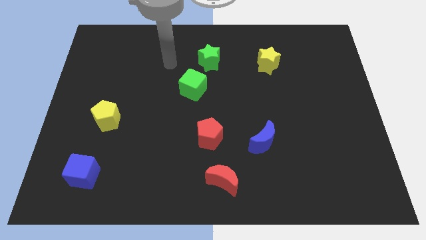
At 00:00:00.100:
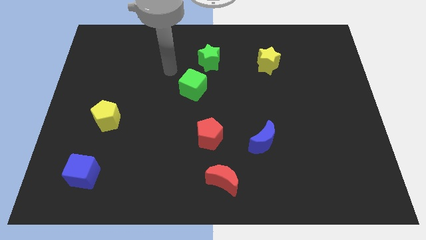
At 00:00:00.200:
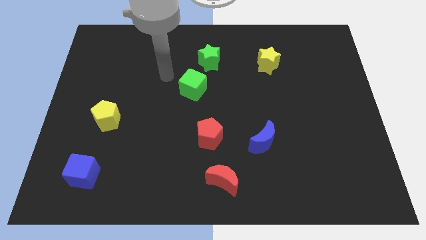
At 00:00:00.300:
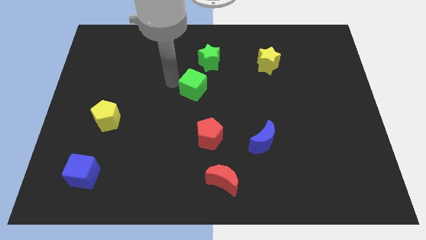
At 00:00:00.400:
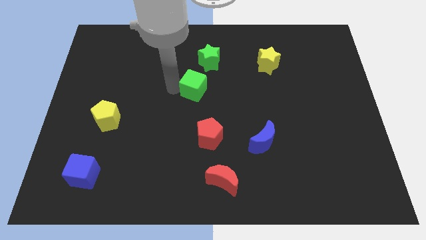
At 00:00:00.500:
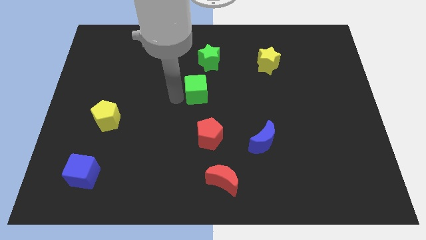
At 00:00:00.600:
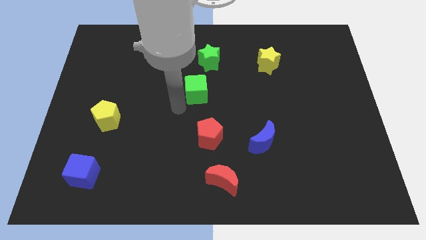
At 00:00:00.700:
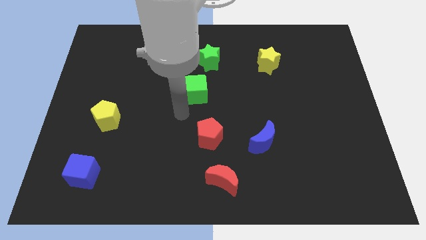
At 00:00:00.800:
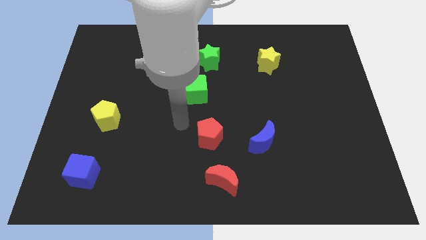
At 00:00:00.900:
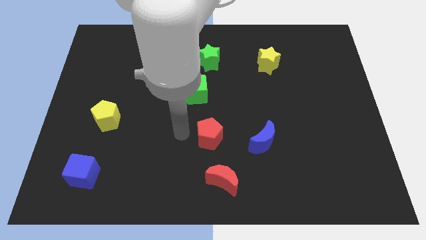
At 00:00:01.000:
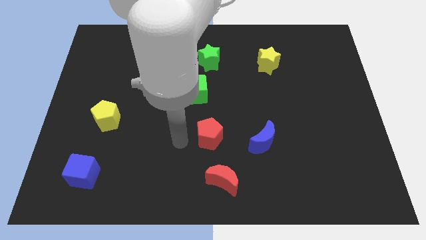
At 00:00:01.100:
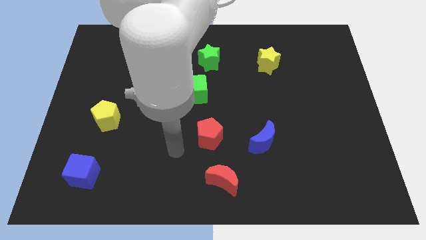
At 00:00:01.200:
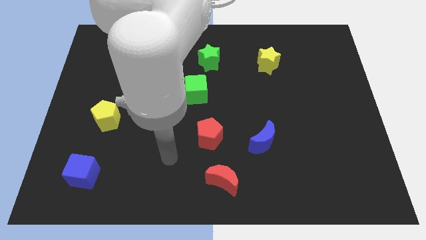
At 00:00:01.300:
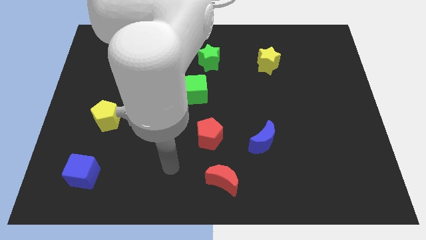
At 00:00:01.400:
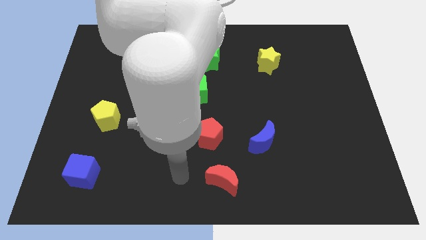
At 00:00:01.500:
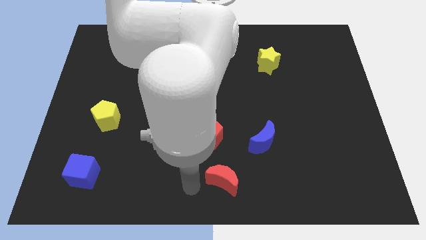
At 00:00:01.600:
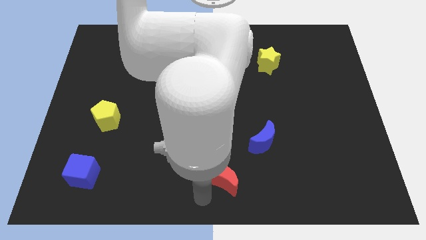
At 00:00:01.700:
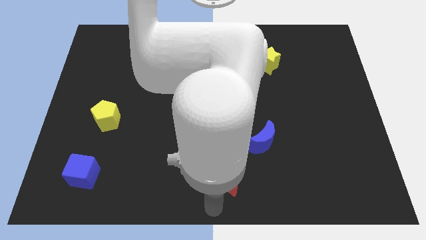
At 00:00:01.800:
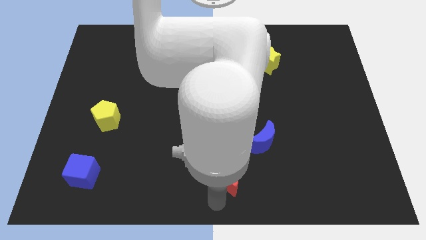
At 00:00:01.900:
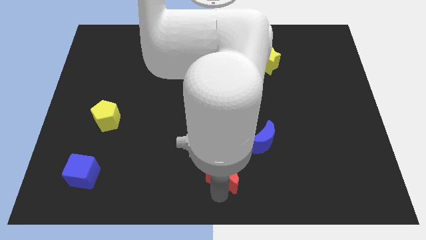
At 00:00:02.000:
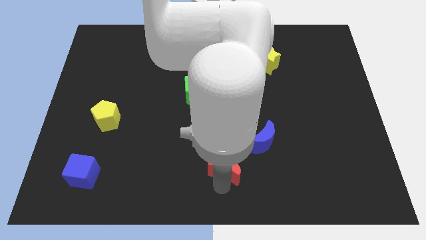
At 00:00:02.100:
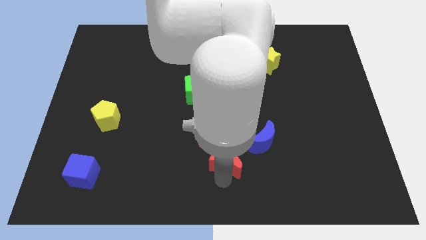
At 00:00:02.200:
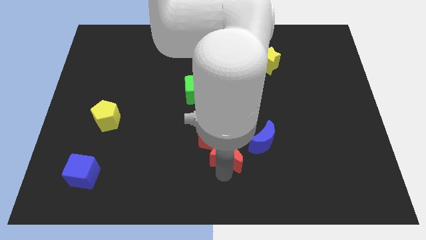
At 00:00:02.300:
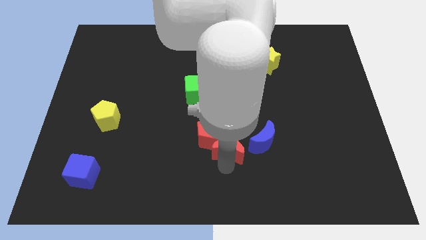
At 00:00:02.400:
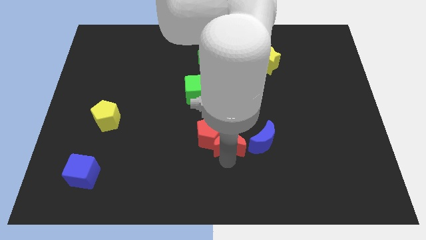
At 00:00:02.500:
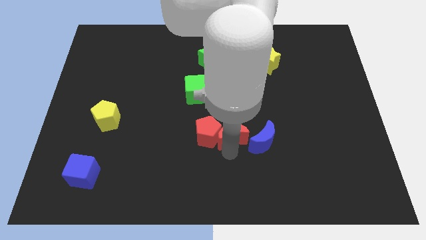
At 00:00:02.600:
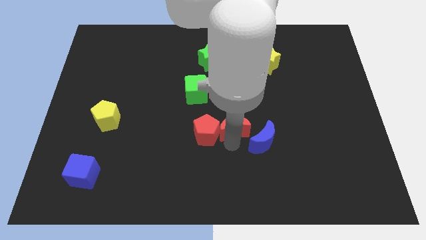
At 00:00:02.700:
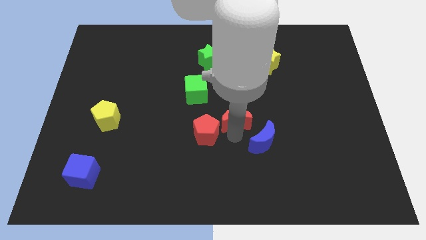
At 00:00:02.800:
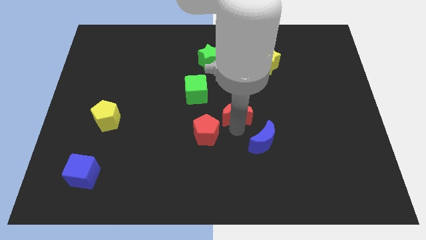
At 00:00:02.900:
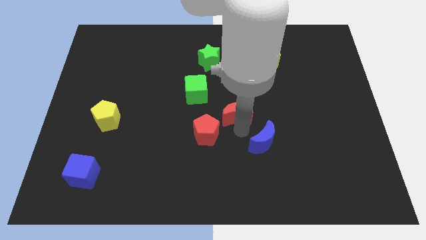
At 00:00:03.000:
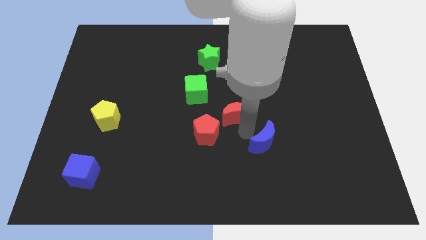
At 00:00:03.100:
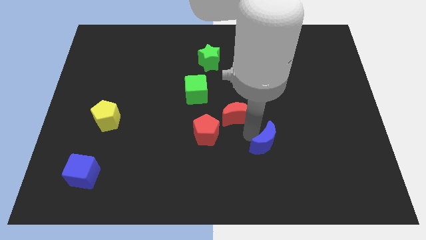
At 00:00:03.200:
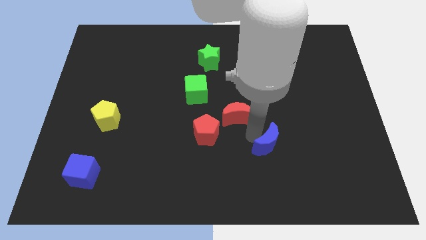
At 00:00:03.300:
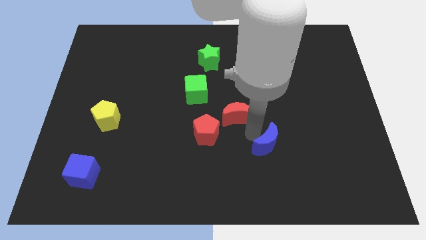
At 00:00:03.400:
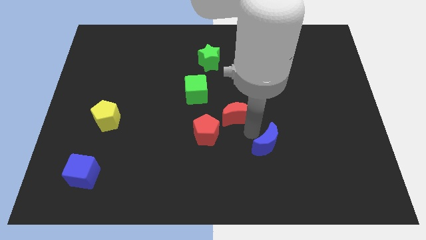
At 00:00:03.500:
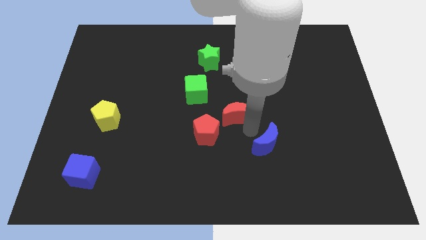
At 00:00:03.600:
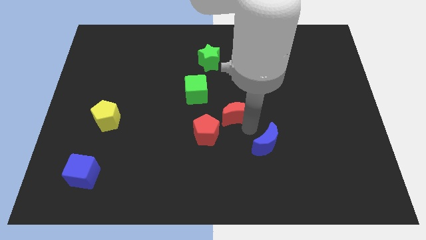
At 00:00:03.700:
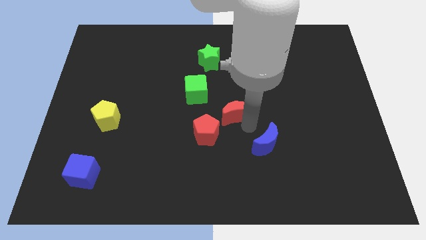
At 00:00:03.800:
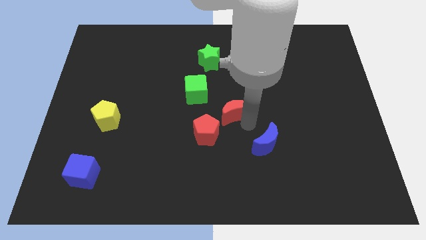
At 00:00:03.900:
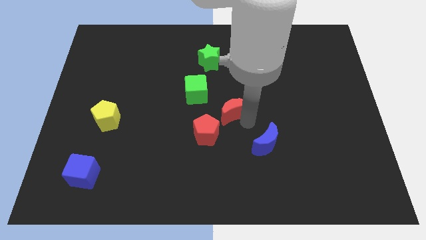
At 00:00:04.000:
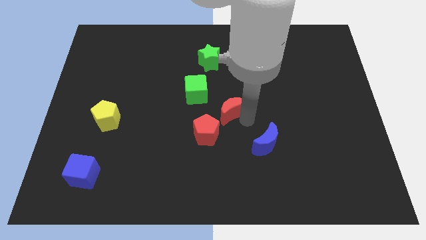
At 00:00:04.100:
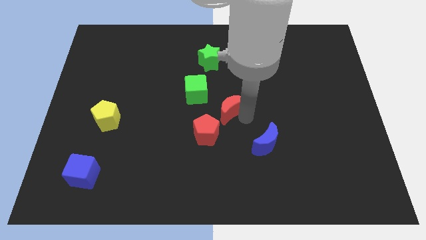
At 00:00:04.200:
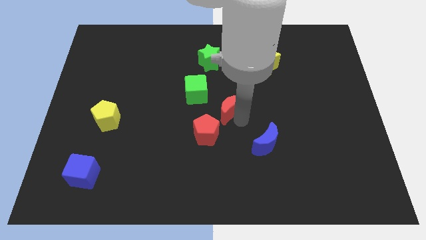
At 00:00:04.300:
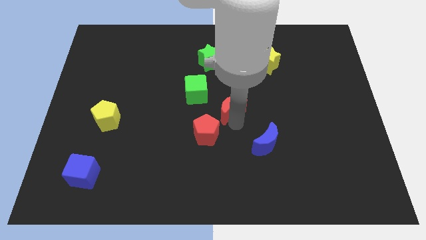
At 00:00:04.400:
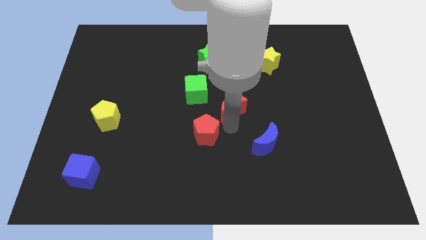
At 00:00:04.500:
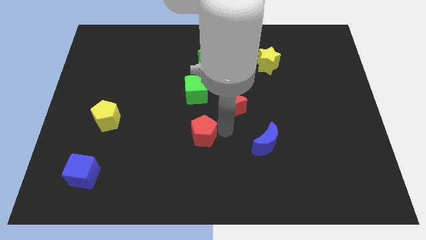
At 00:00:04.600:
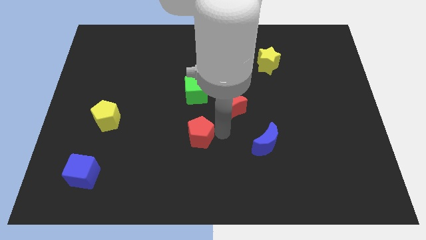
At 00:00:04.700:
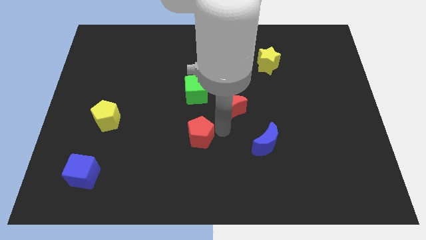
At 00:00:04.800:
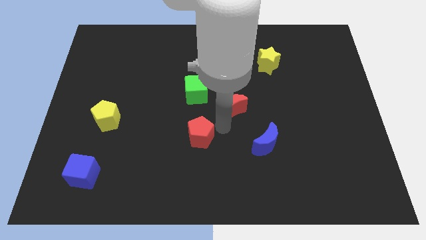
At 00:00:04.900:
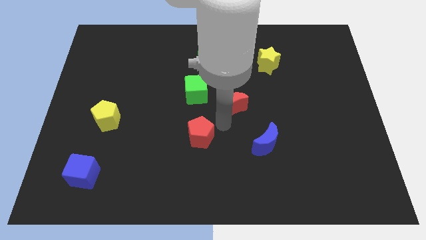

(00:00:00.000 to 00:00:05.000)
move the red moon to the right side of the green cube

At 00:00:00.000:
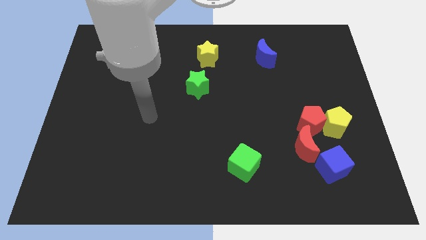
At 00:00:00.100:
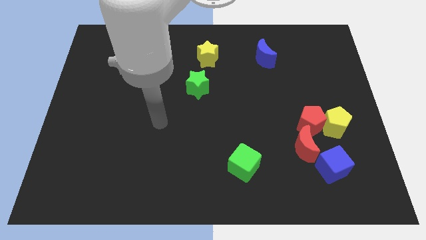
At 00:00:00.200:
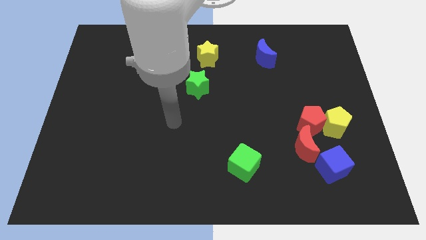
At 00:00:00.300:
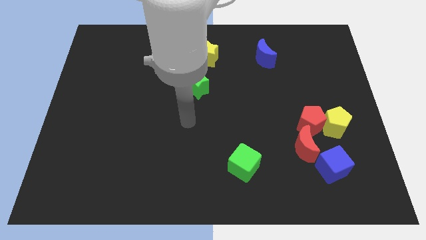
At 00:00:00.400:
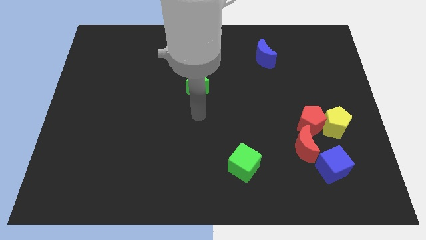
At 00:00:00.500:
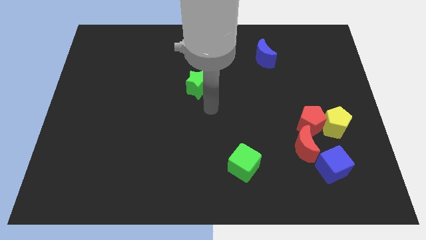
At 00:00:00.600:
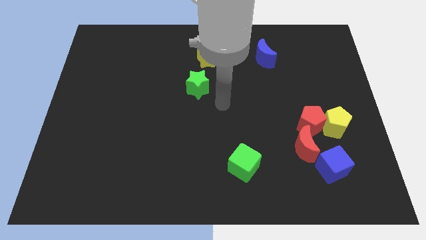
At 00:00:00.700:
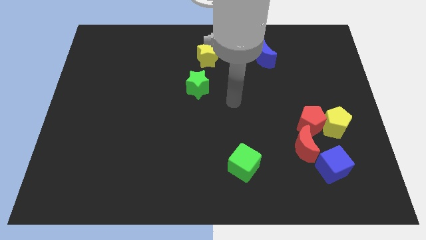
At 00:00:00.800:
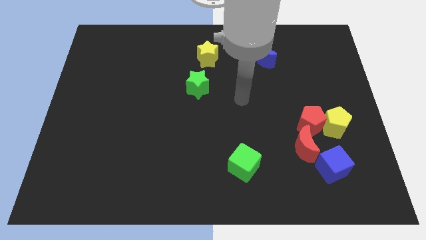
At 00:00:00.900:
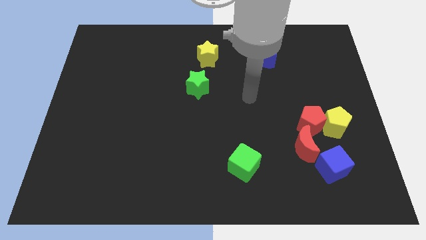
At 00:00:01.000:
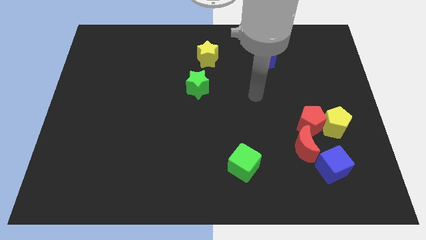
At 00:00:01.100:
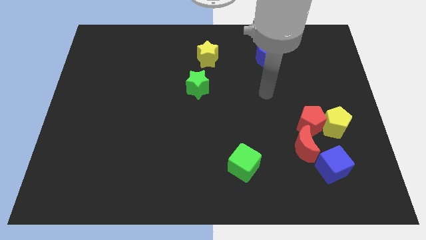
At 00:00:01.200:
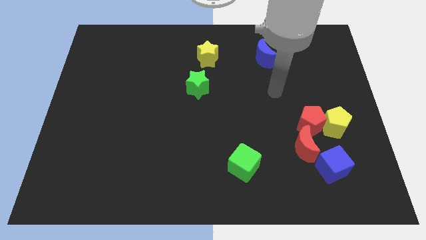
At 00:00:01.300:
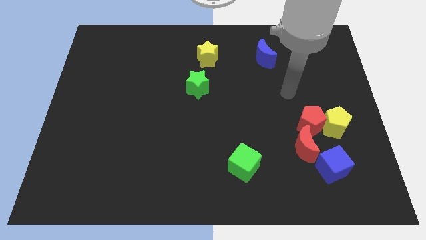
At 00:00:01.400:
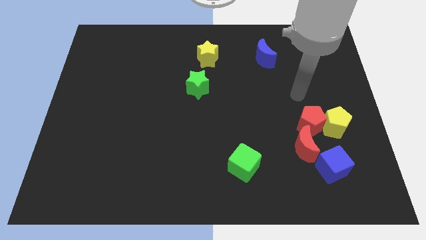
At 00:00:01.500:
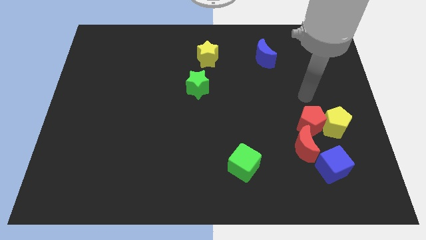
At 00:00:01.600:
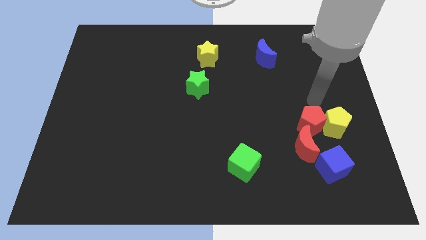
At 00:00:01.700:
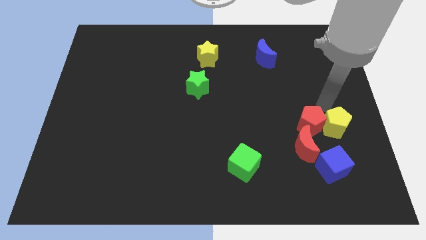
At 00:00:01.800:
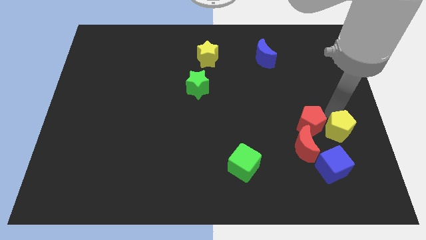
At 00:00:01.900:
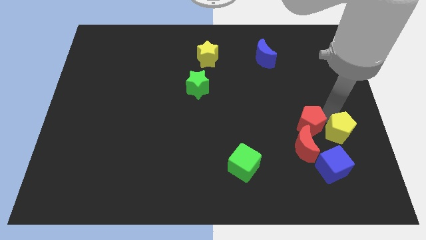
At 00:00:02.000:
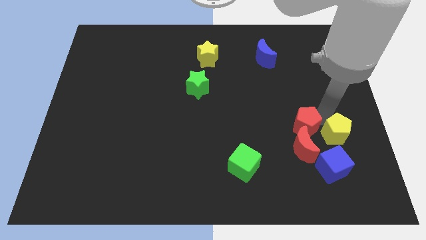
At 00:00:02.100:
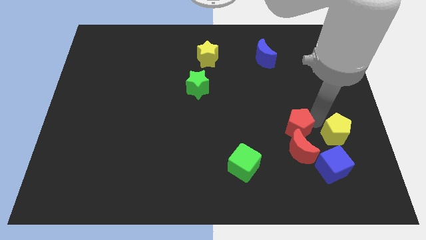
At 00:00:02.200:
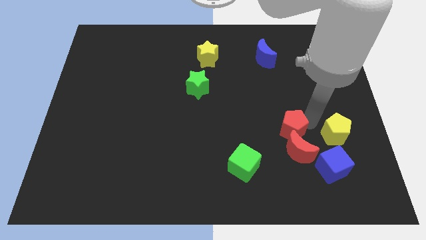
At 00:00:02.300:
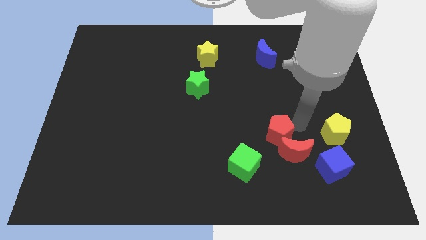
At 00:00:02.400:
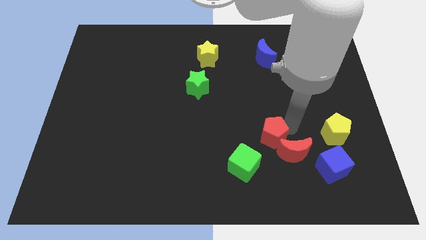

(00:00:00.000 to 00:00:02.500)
put the red pentagon to the left side of the red moon

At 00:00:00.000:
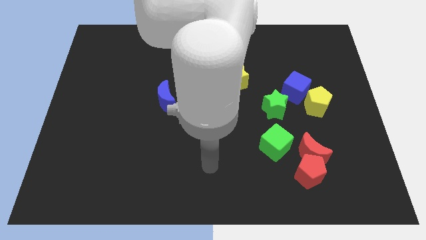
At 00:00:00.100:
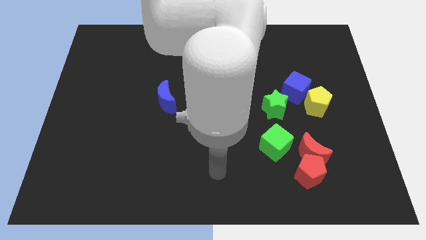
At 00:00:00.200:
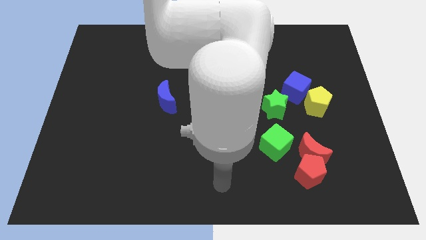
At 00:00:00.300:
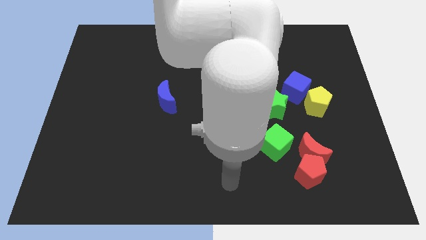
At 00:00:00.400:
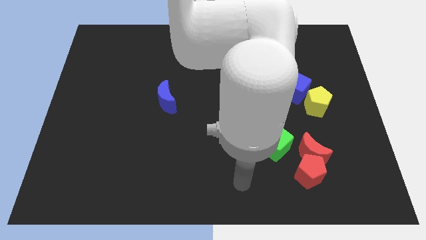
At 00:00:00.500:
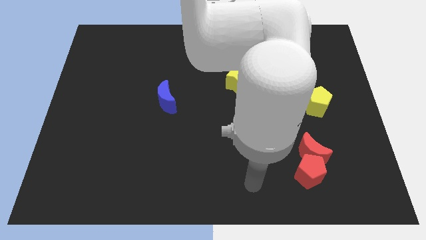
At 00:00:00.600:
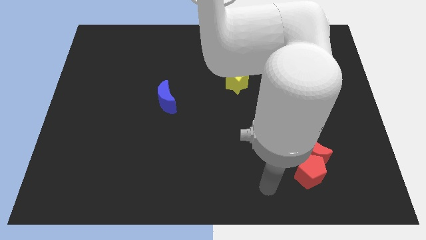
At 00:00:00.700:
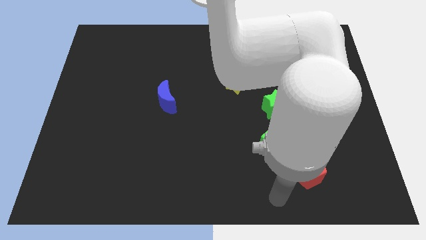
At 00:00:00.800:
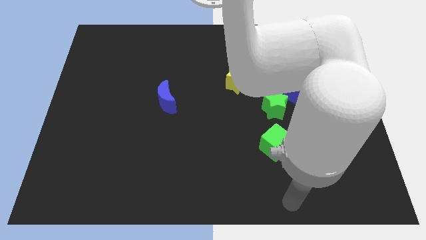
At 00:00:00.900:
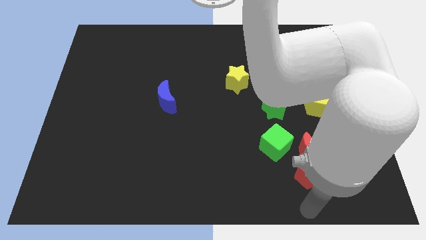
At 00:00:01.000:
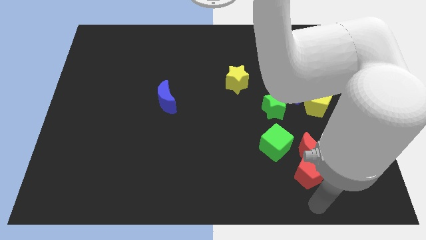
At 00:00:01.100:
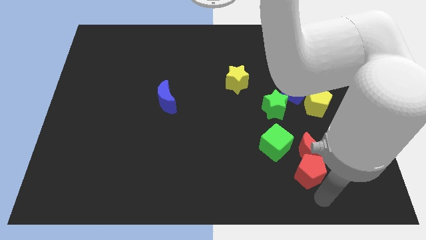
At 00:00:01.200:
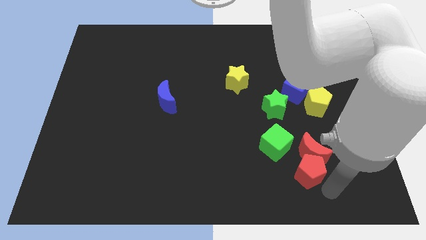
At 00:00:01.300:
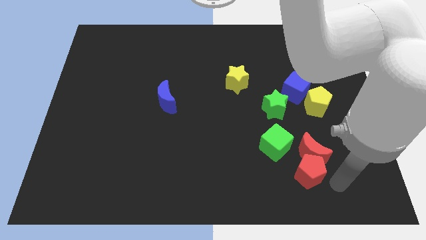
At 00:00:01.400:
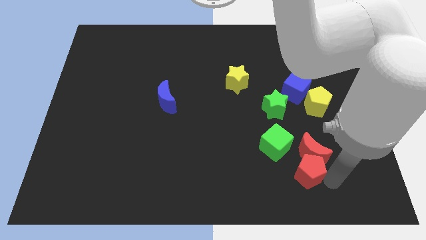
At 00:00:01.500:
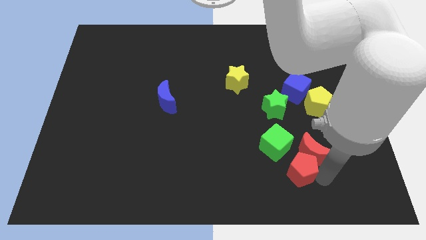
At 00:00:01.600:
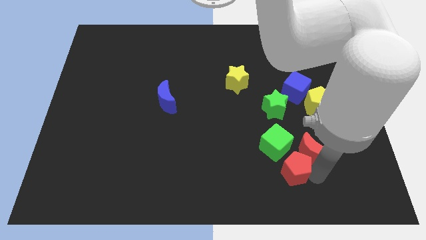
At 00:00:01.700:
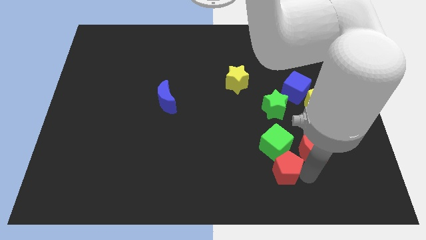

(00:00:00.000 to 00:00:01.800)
put the red pentagon to the bottom side of the green star
